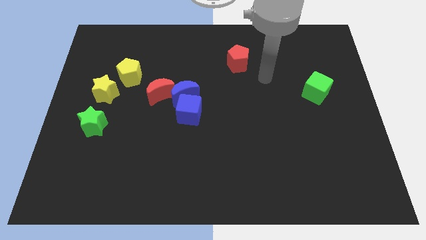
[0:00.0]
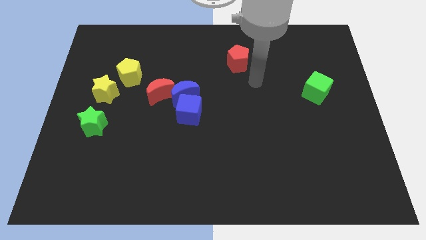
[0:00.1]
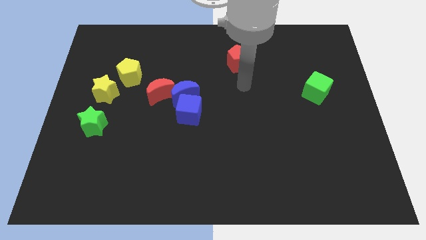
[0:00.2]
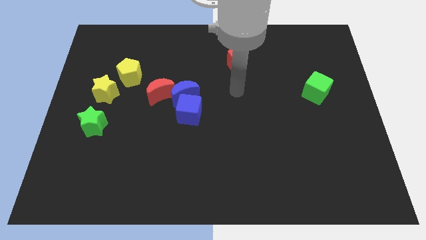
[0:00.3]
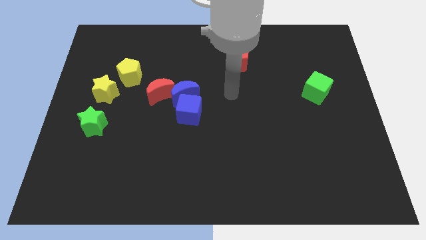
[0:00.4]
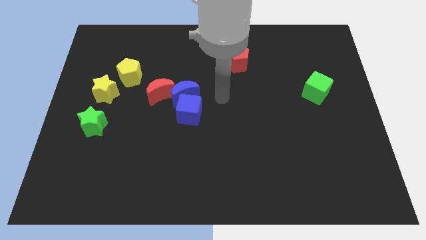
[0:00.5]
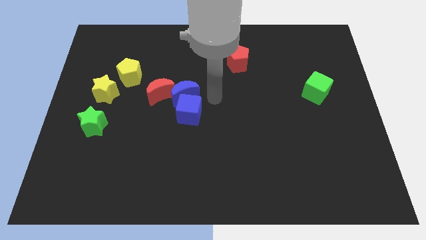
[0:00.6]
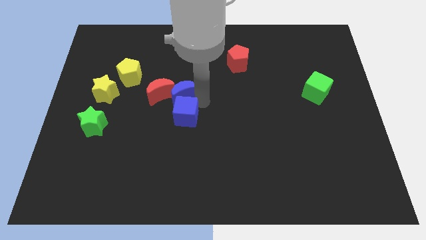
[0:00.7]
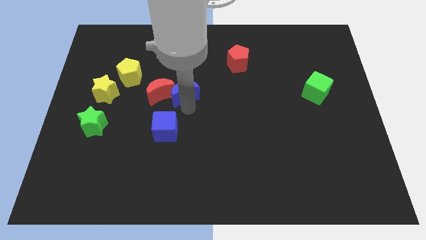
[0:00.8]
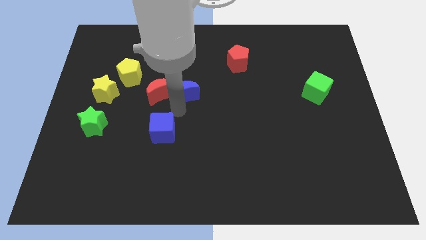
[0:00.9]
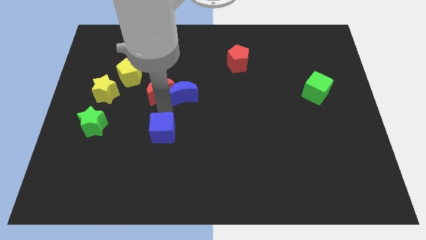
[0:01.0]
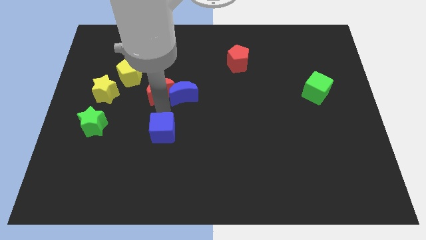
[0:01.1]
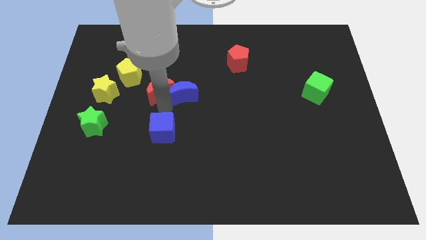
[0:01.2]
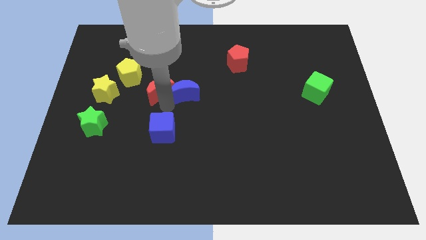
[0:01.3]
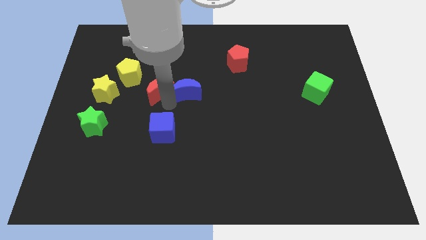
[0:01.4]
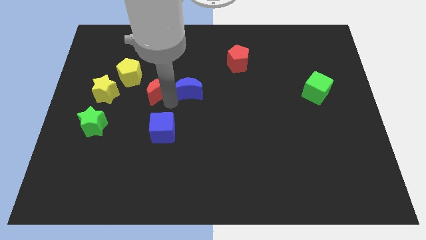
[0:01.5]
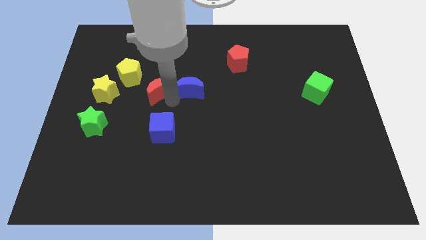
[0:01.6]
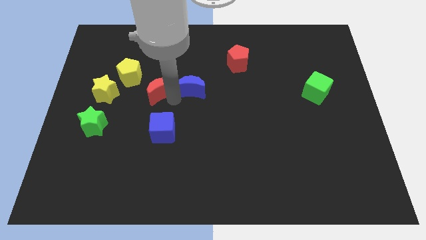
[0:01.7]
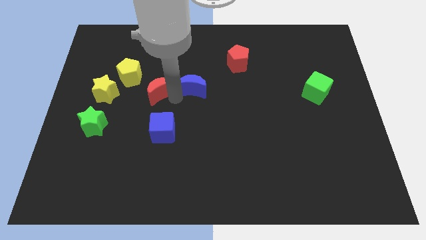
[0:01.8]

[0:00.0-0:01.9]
move the blue moon away from the blue cube and red moon

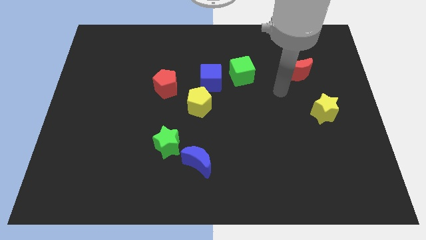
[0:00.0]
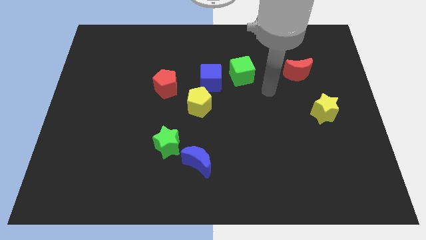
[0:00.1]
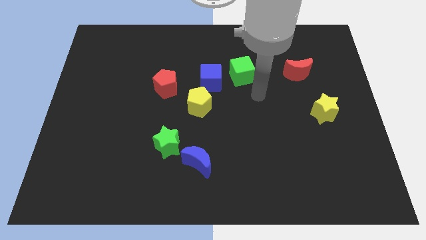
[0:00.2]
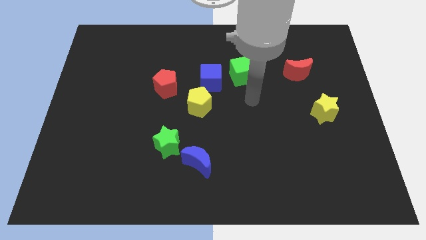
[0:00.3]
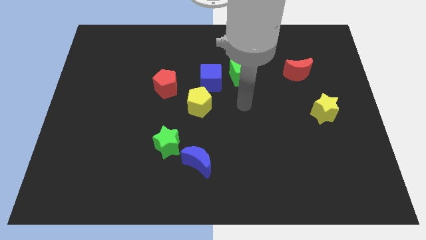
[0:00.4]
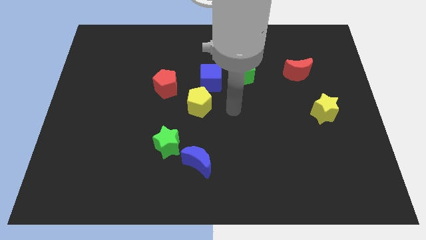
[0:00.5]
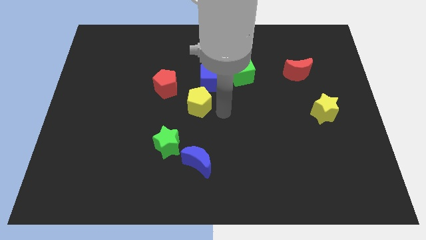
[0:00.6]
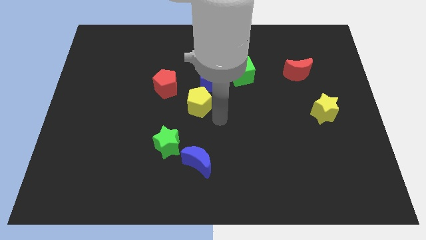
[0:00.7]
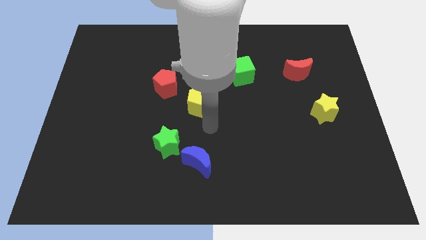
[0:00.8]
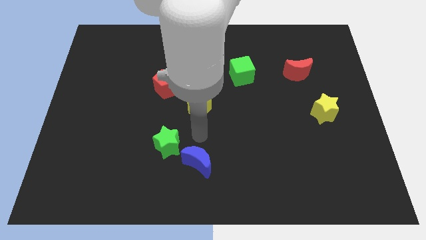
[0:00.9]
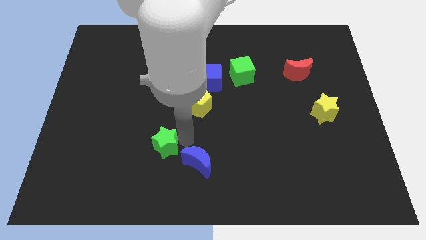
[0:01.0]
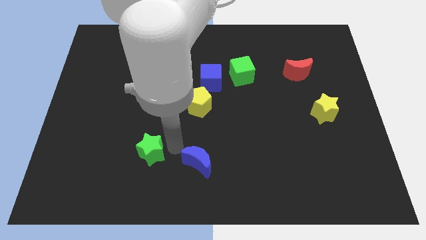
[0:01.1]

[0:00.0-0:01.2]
move the blue moon away from the green star

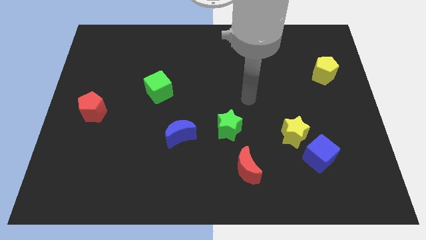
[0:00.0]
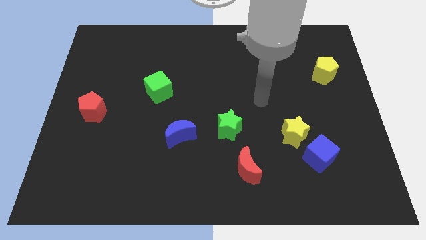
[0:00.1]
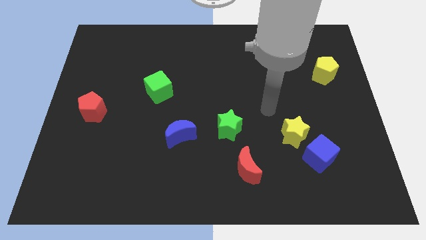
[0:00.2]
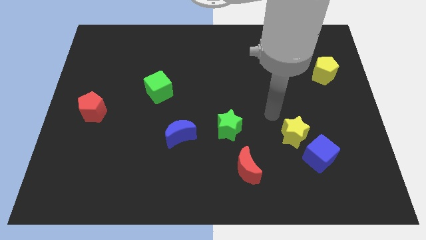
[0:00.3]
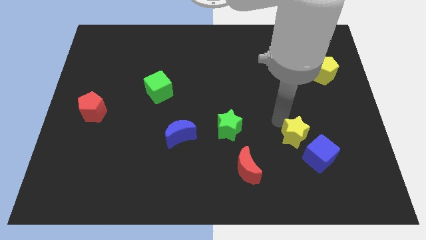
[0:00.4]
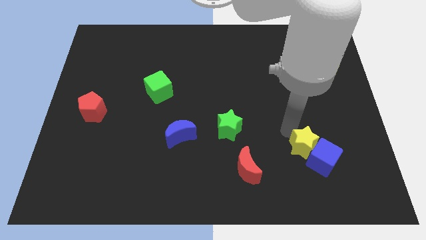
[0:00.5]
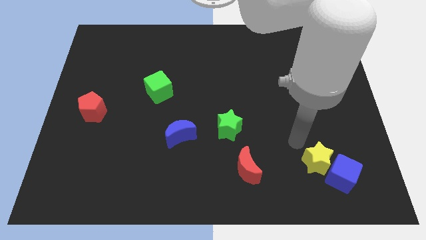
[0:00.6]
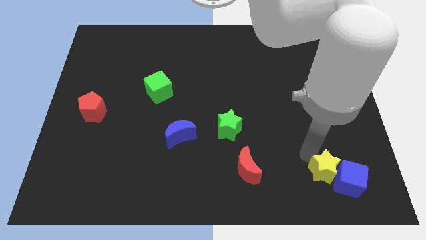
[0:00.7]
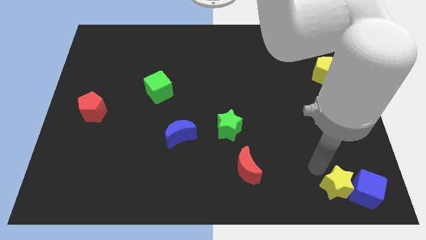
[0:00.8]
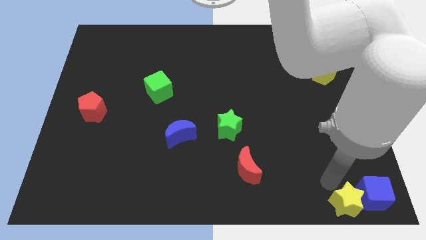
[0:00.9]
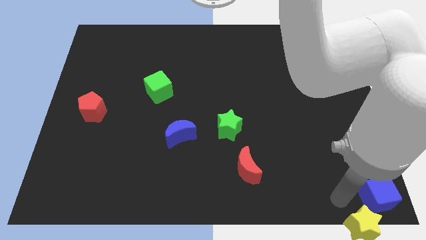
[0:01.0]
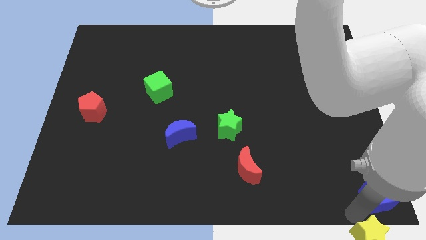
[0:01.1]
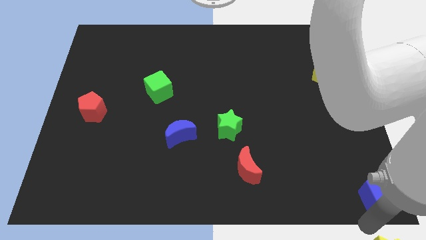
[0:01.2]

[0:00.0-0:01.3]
separate the blue cube from the yellow star

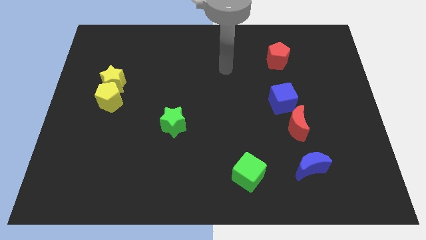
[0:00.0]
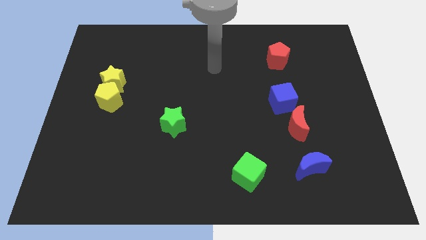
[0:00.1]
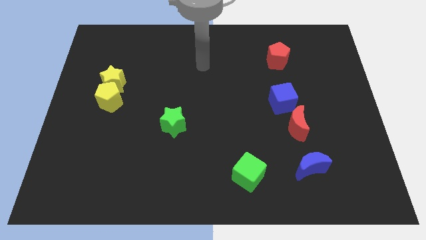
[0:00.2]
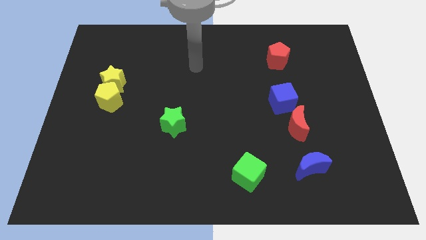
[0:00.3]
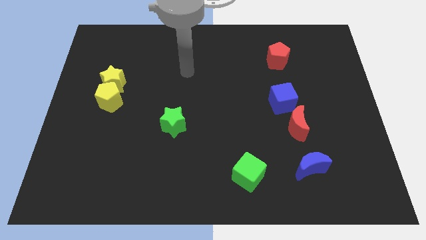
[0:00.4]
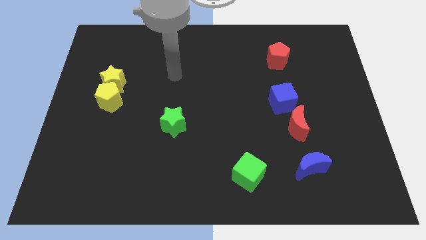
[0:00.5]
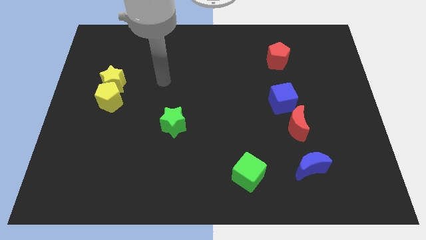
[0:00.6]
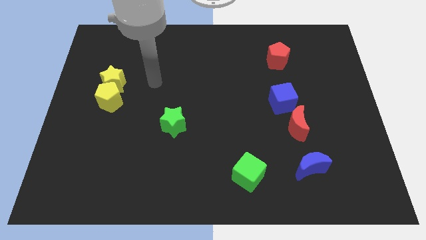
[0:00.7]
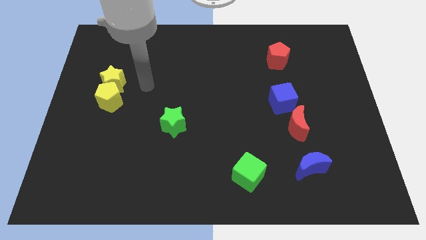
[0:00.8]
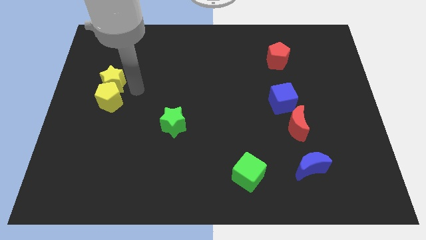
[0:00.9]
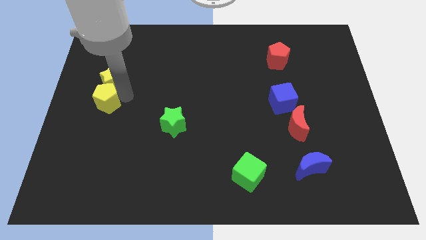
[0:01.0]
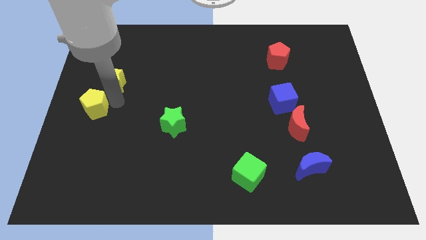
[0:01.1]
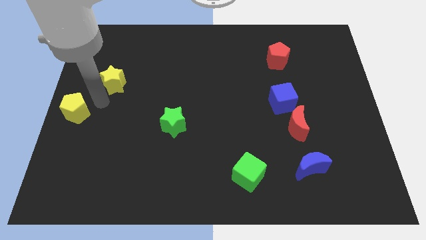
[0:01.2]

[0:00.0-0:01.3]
separate the yellow star from the yellow pentagon

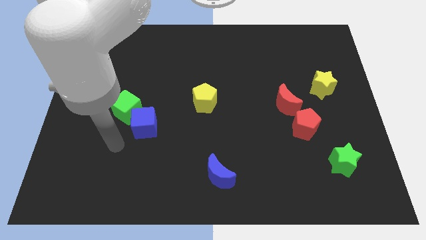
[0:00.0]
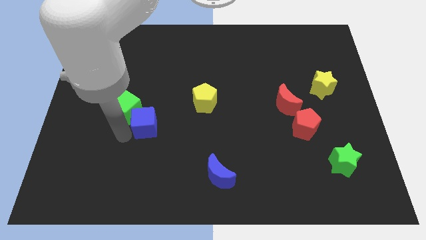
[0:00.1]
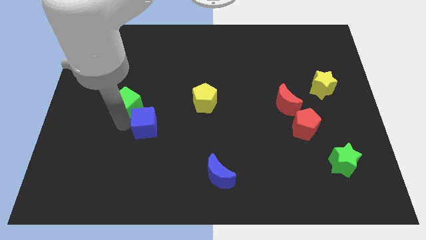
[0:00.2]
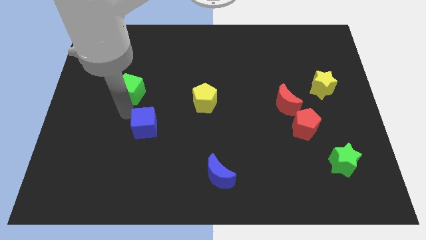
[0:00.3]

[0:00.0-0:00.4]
move the blue cube away from the green cube

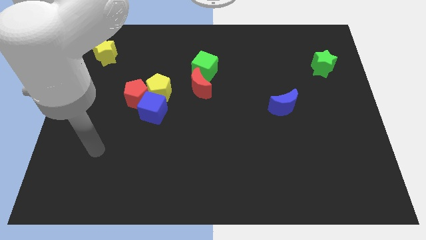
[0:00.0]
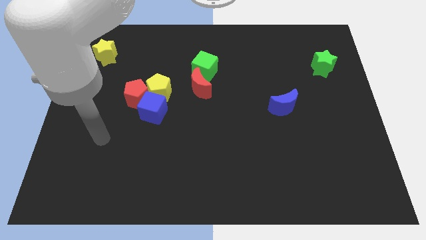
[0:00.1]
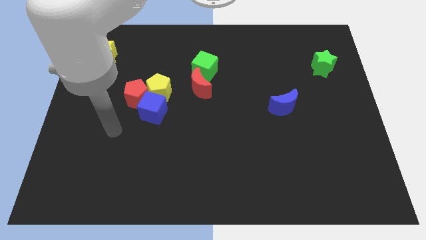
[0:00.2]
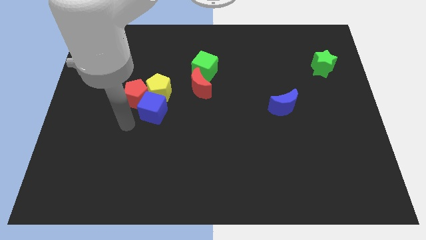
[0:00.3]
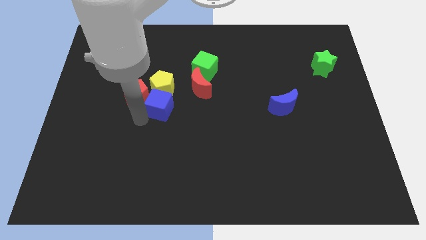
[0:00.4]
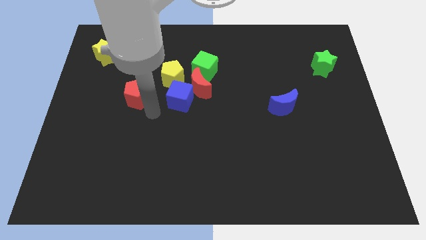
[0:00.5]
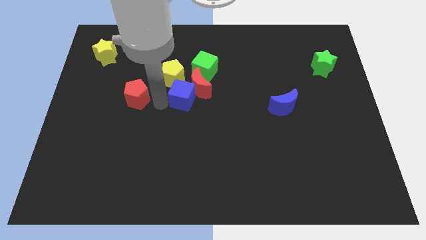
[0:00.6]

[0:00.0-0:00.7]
pull the red pentagon apart from the yellow pentagon and blue cube

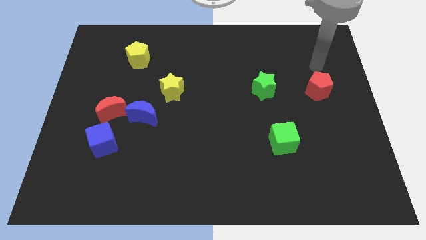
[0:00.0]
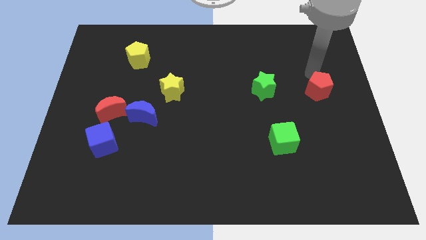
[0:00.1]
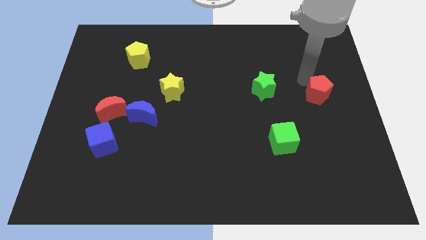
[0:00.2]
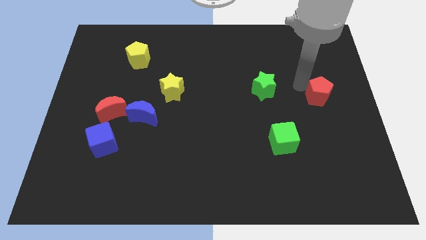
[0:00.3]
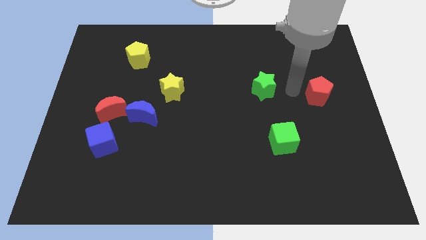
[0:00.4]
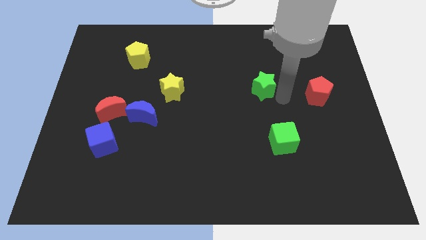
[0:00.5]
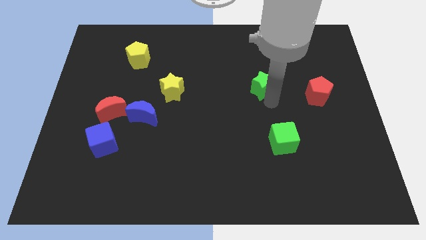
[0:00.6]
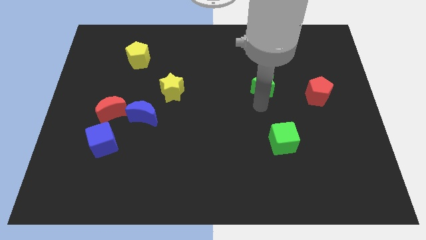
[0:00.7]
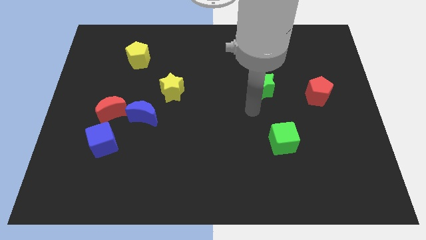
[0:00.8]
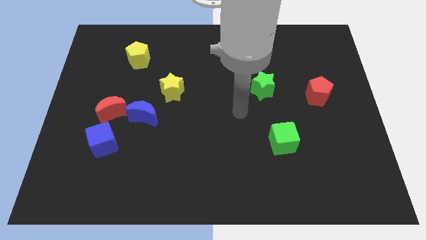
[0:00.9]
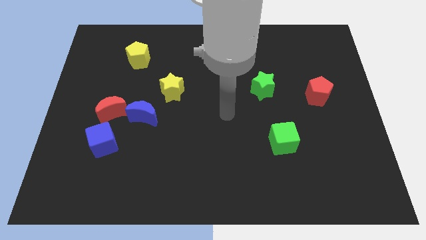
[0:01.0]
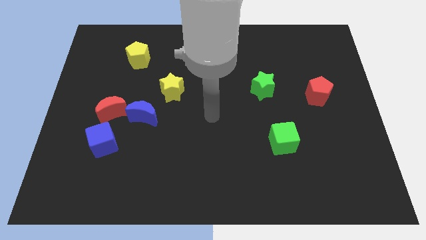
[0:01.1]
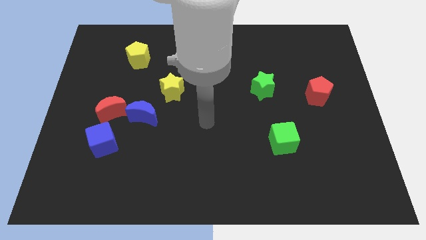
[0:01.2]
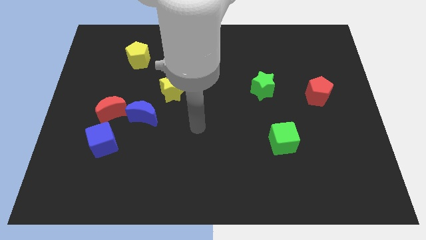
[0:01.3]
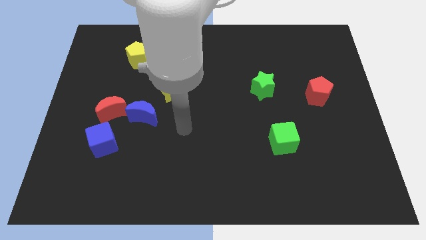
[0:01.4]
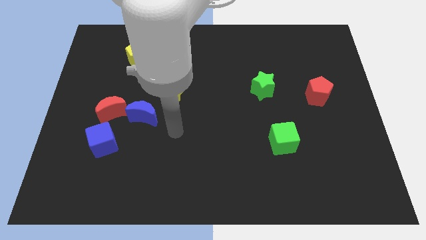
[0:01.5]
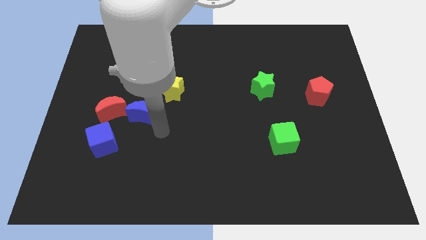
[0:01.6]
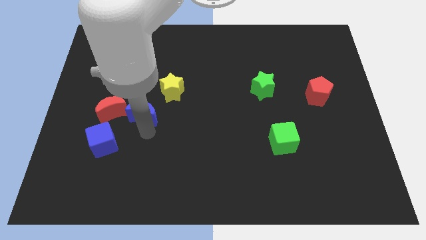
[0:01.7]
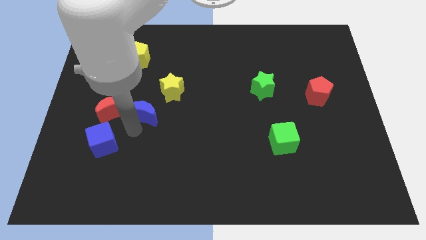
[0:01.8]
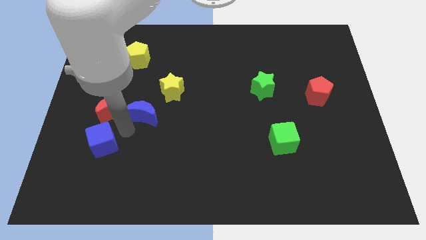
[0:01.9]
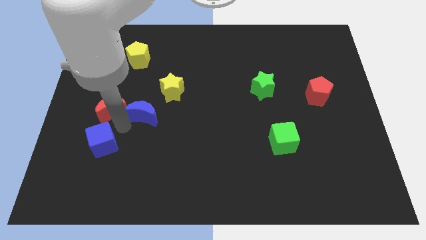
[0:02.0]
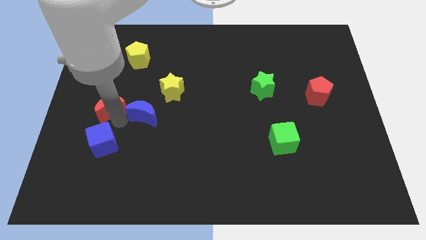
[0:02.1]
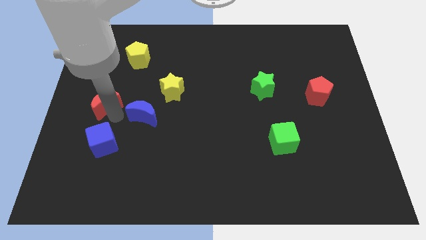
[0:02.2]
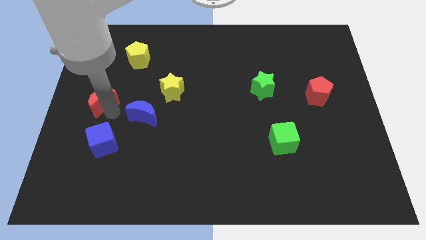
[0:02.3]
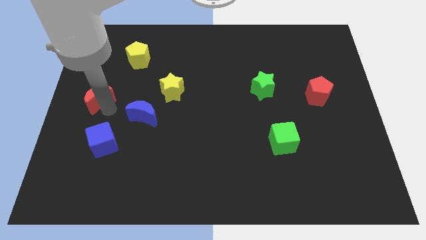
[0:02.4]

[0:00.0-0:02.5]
separate the red moon from the blue moon and blue cube
